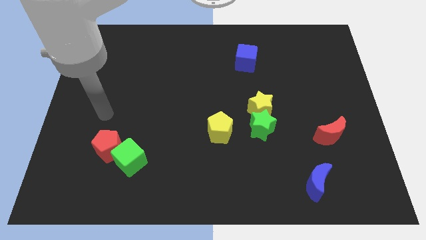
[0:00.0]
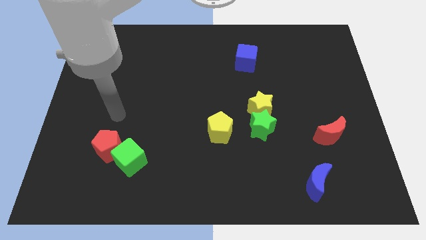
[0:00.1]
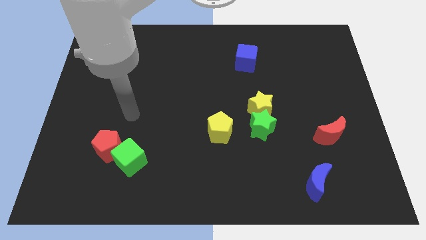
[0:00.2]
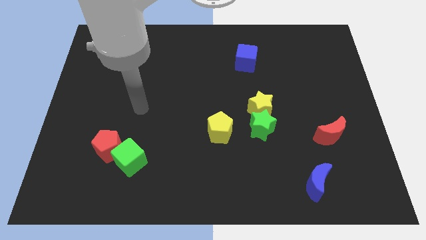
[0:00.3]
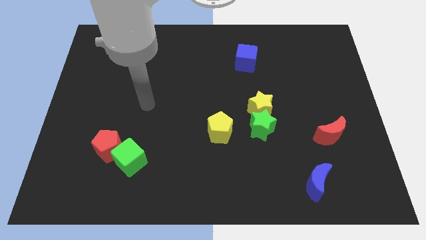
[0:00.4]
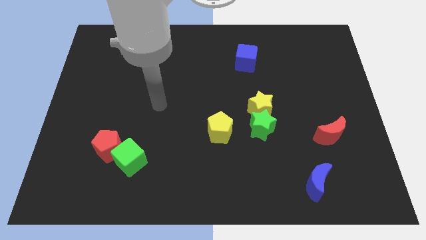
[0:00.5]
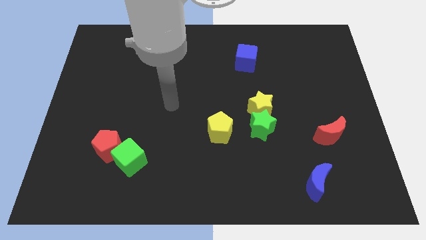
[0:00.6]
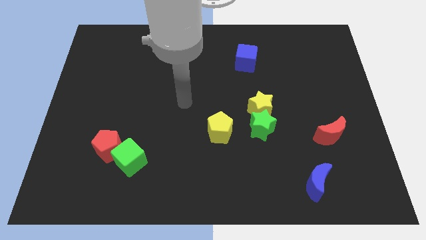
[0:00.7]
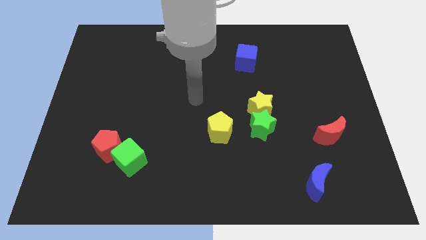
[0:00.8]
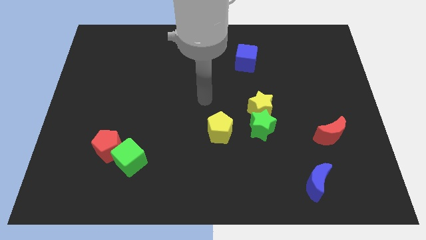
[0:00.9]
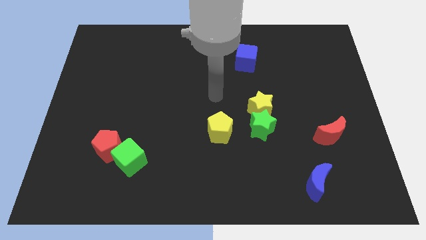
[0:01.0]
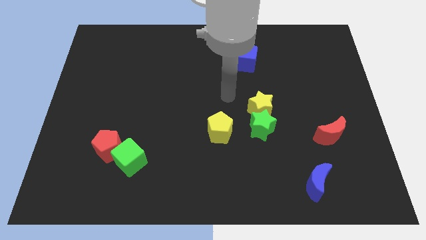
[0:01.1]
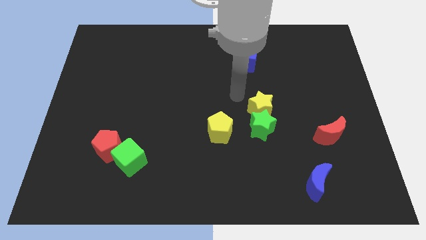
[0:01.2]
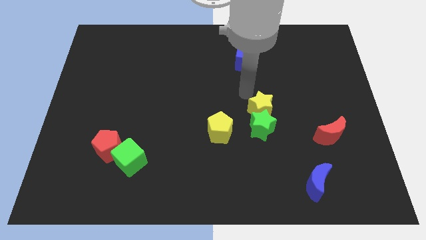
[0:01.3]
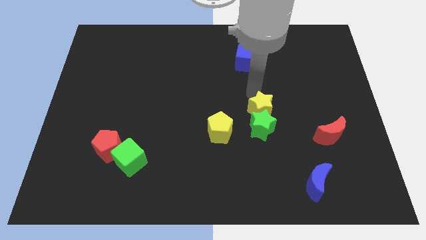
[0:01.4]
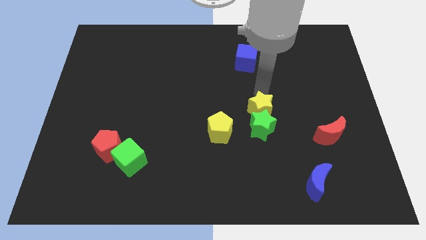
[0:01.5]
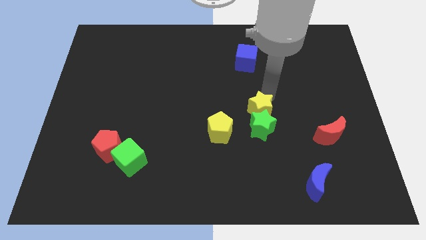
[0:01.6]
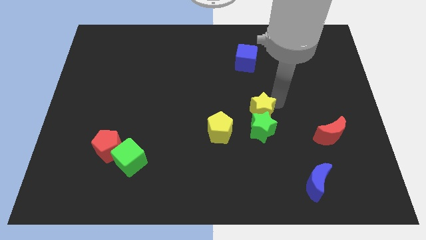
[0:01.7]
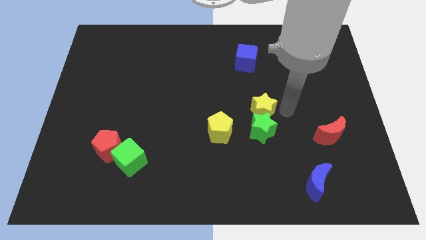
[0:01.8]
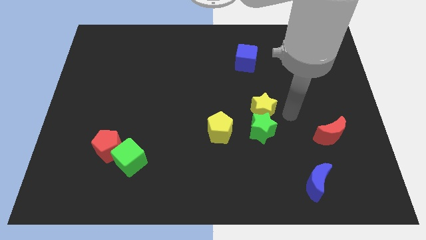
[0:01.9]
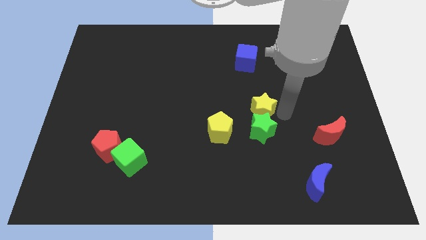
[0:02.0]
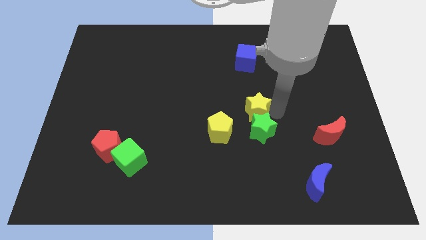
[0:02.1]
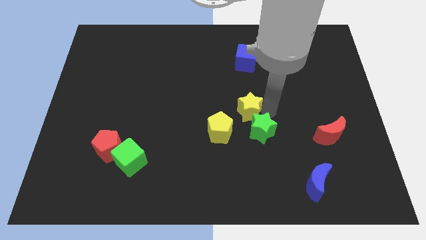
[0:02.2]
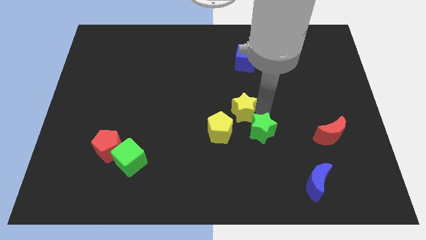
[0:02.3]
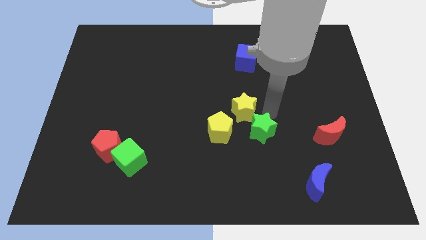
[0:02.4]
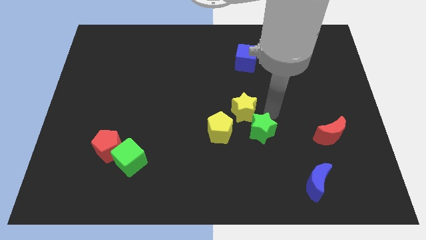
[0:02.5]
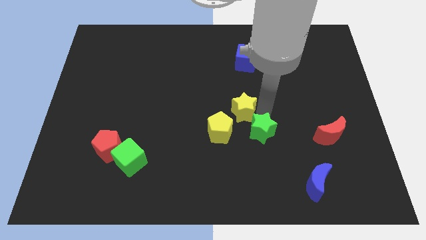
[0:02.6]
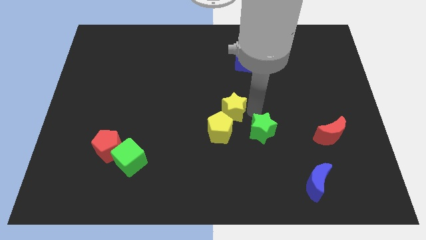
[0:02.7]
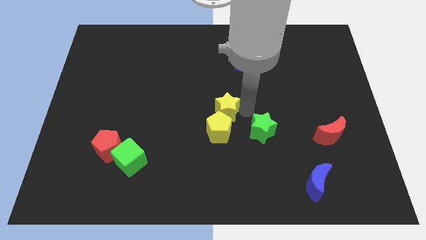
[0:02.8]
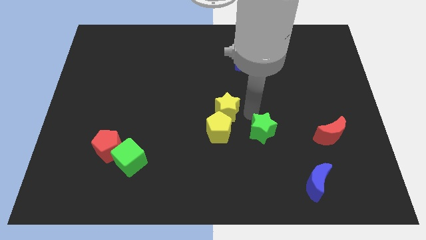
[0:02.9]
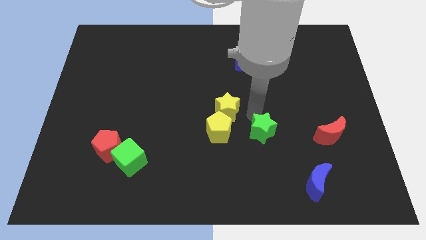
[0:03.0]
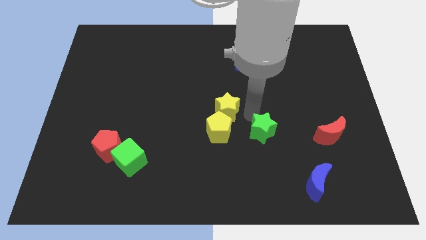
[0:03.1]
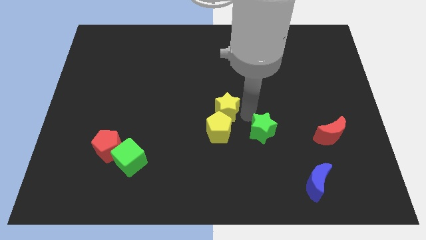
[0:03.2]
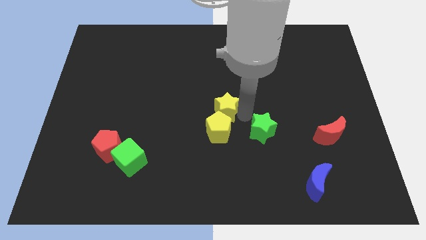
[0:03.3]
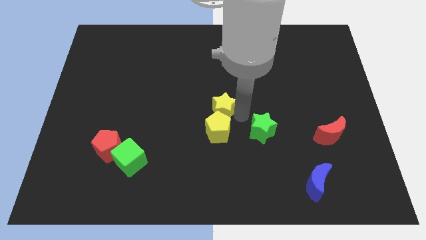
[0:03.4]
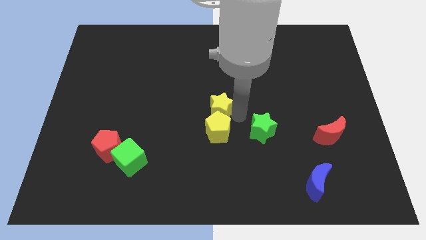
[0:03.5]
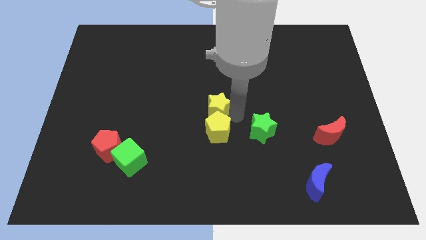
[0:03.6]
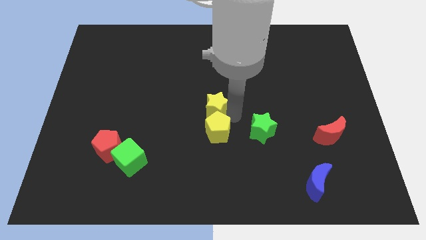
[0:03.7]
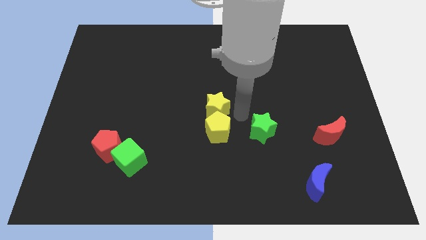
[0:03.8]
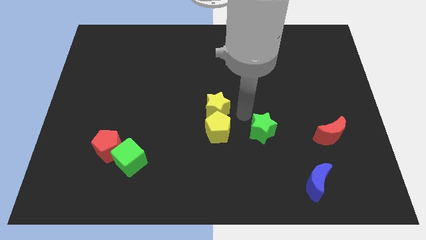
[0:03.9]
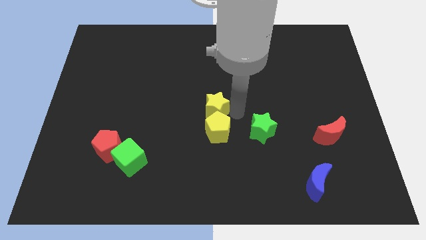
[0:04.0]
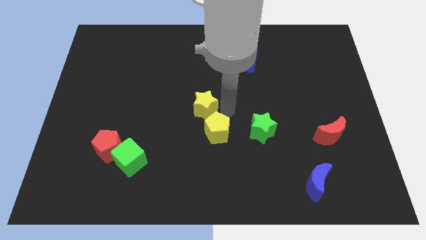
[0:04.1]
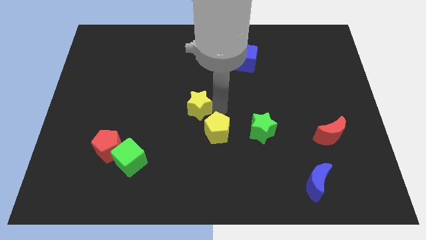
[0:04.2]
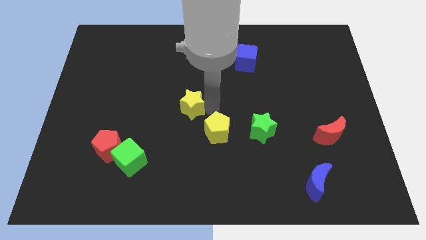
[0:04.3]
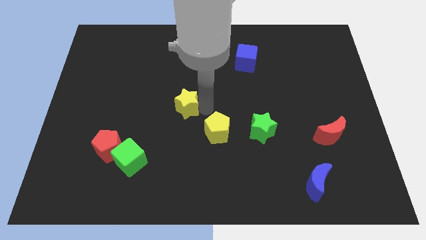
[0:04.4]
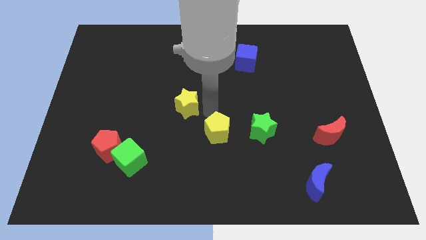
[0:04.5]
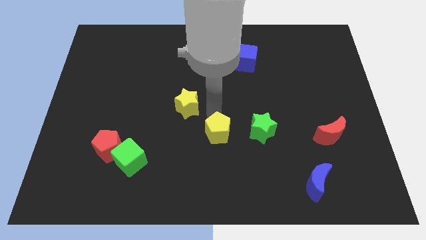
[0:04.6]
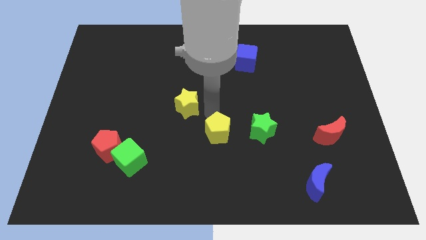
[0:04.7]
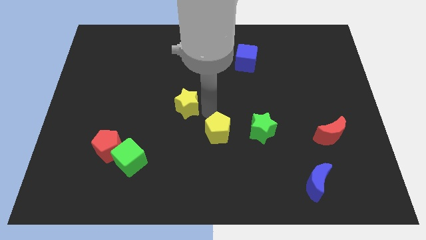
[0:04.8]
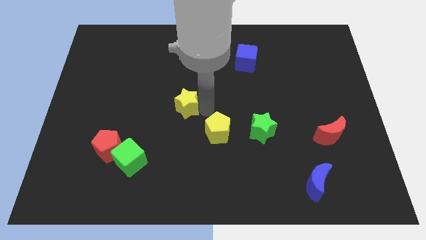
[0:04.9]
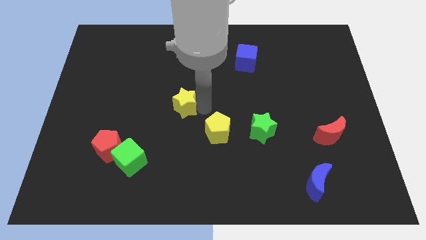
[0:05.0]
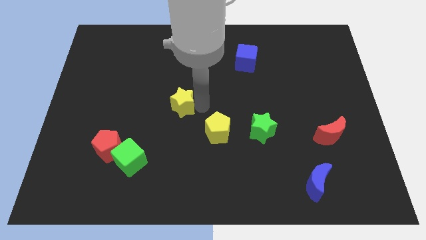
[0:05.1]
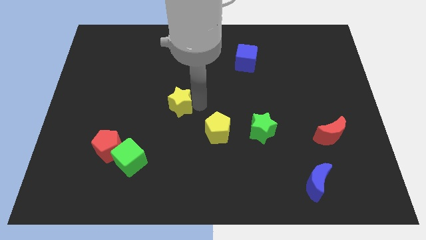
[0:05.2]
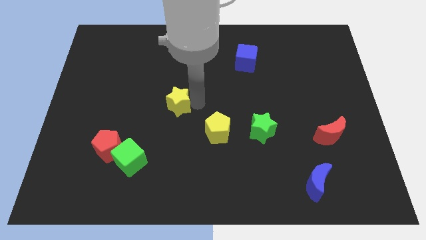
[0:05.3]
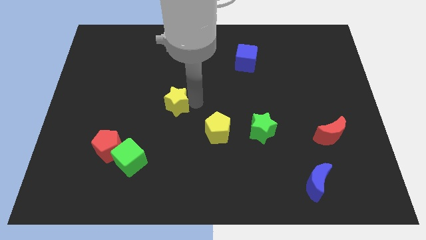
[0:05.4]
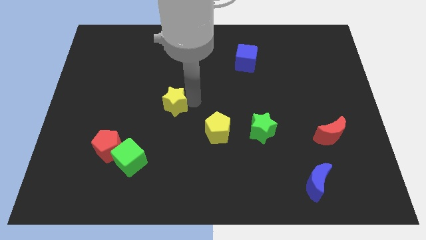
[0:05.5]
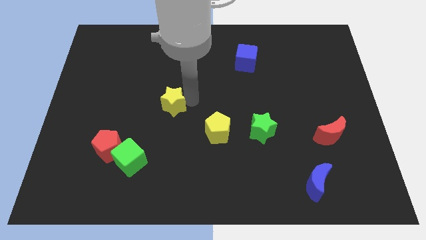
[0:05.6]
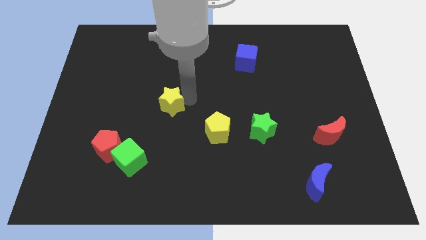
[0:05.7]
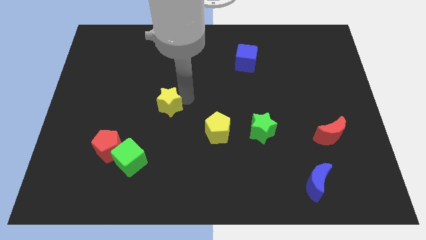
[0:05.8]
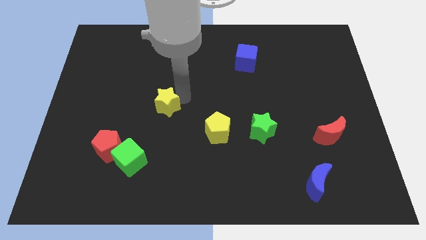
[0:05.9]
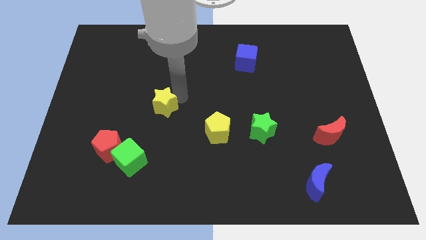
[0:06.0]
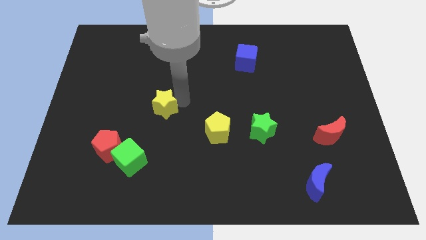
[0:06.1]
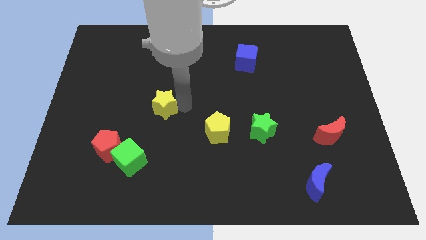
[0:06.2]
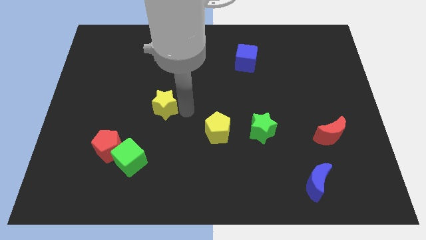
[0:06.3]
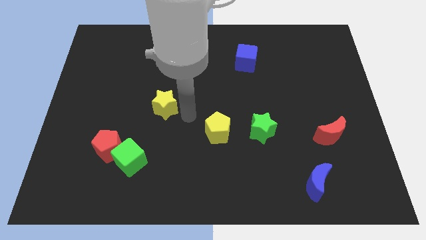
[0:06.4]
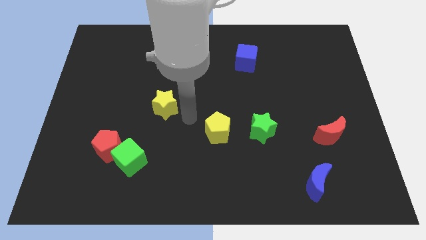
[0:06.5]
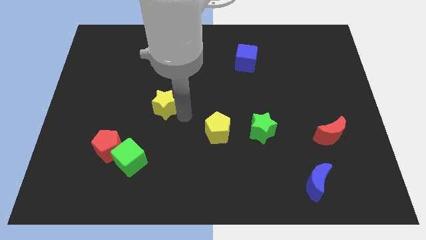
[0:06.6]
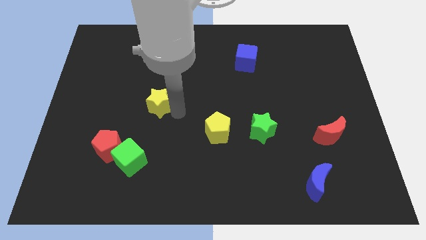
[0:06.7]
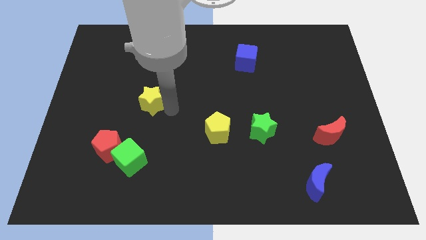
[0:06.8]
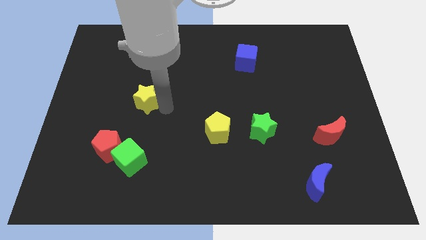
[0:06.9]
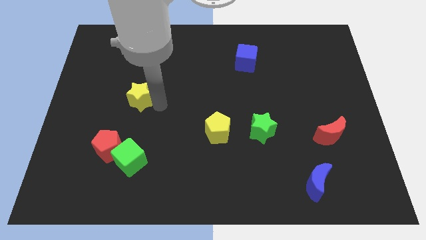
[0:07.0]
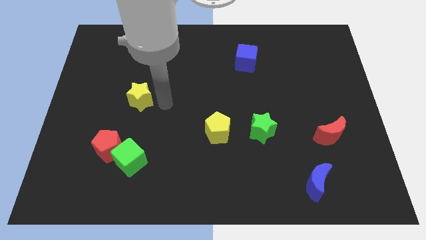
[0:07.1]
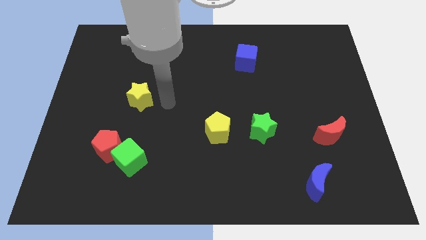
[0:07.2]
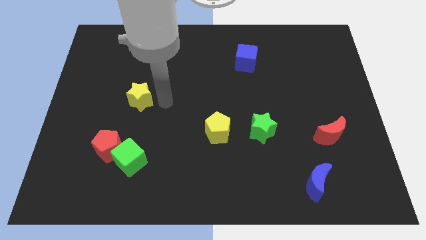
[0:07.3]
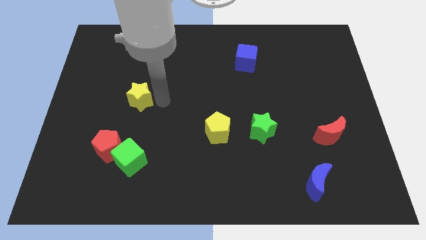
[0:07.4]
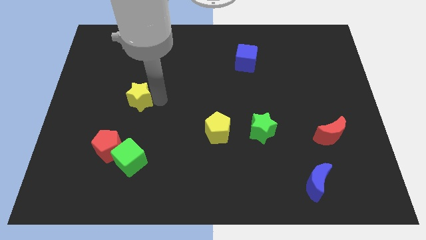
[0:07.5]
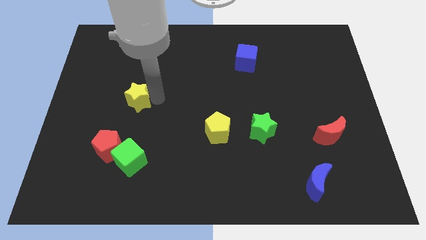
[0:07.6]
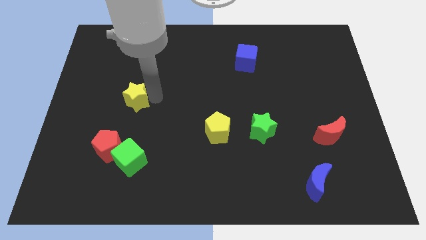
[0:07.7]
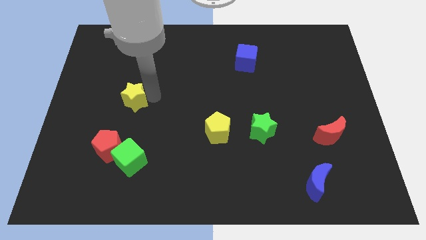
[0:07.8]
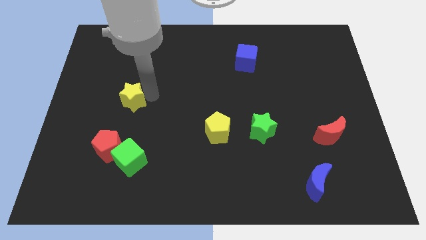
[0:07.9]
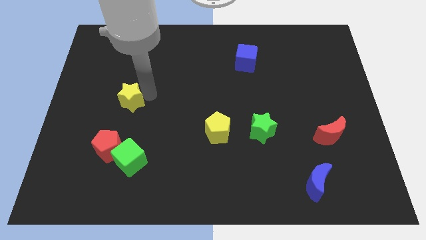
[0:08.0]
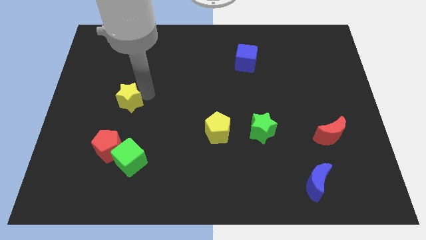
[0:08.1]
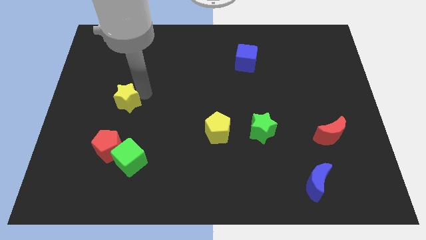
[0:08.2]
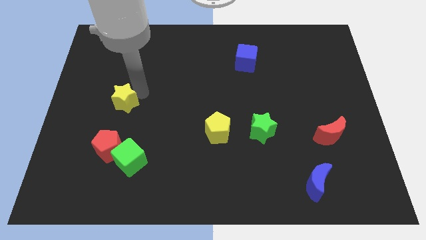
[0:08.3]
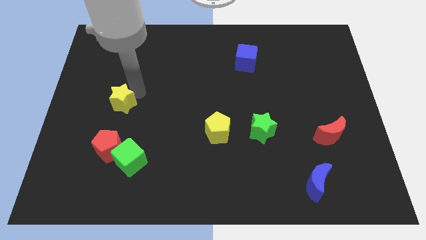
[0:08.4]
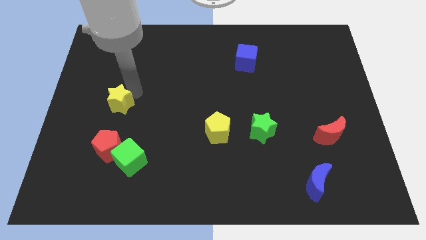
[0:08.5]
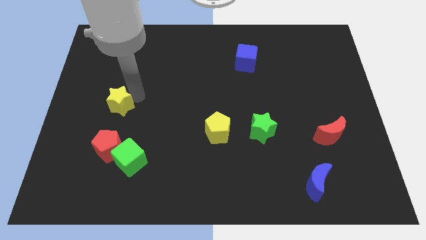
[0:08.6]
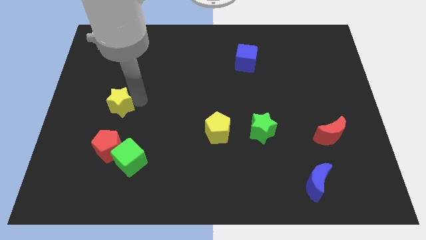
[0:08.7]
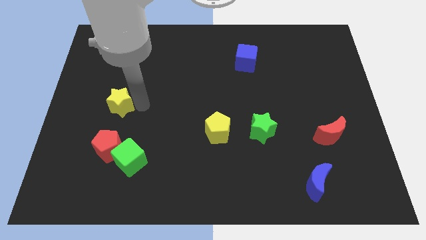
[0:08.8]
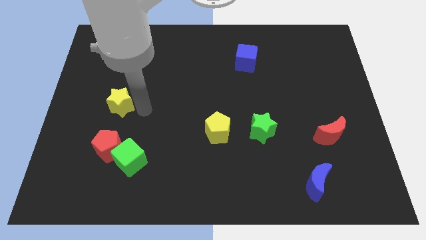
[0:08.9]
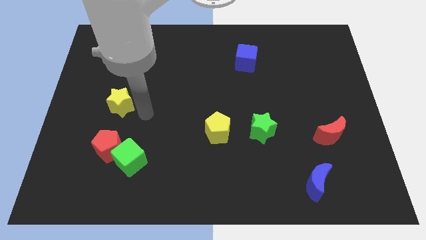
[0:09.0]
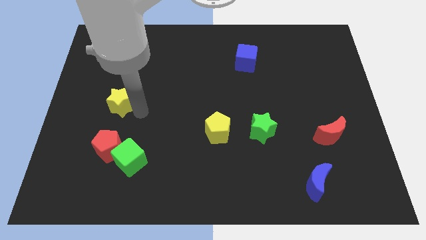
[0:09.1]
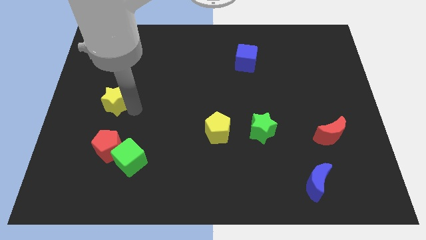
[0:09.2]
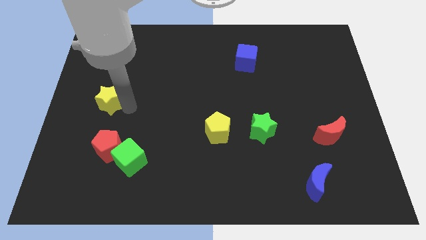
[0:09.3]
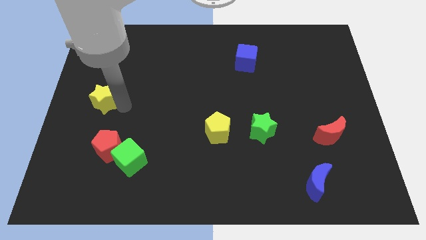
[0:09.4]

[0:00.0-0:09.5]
move the yellow star to the left side of the board
